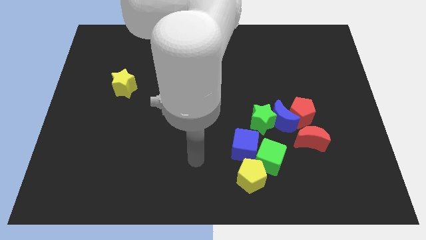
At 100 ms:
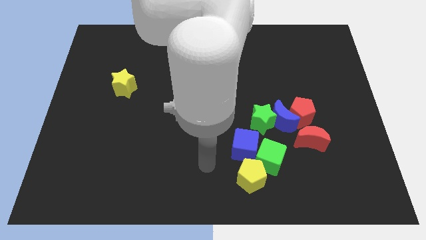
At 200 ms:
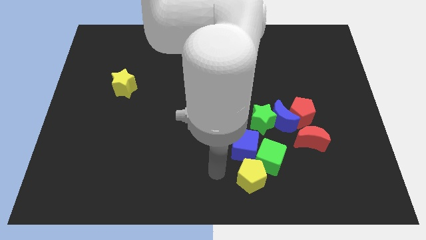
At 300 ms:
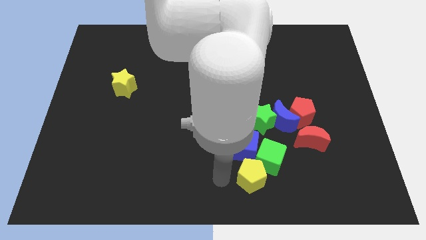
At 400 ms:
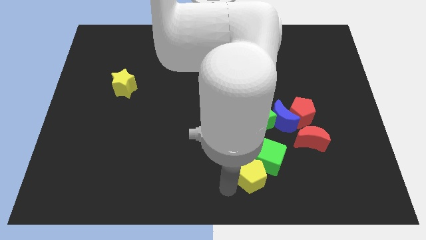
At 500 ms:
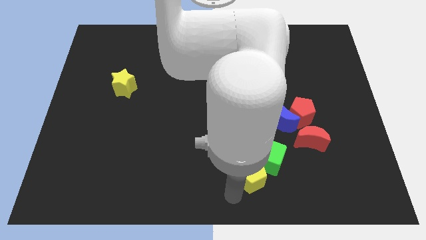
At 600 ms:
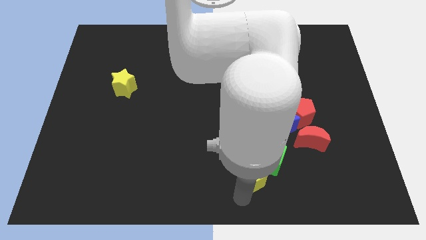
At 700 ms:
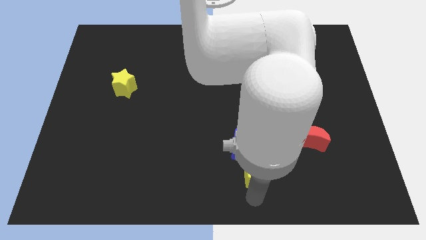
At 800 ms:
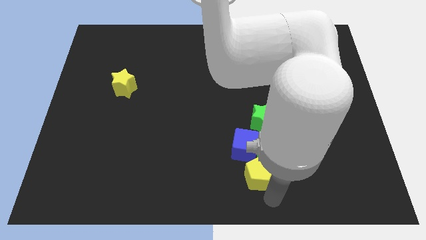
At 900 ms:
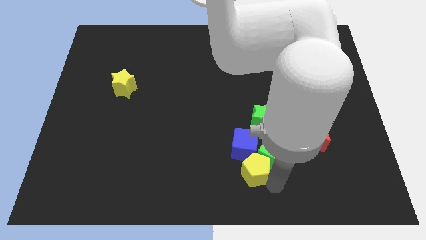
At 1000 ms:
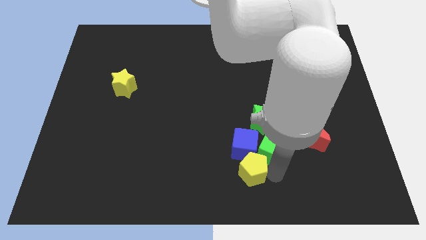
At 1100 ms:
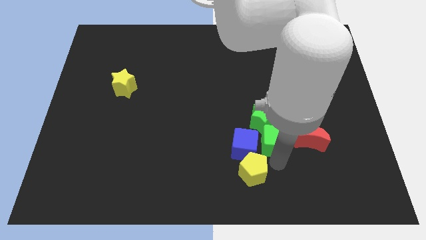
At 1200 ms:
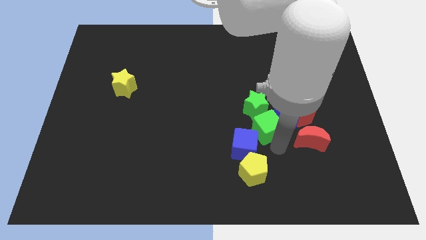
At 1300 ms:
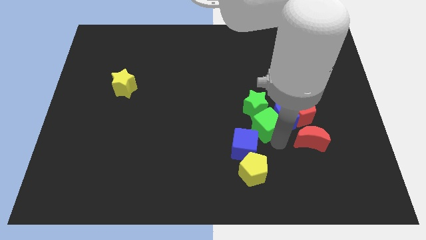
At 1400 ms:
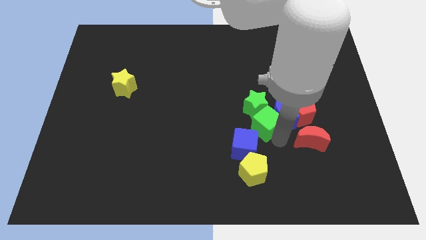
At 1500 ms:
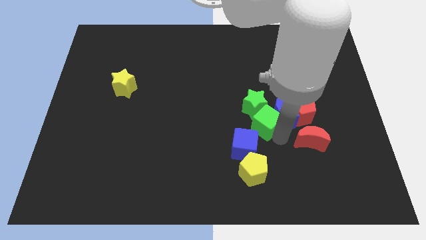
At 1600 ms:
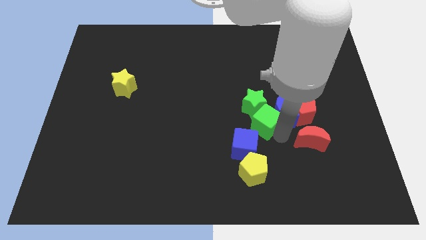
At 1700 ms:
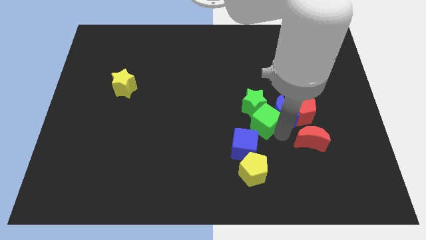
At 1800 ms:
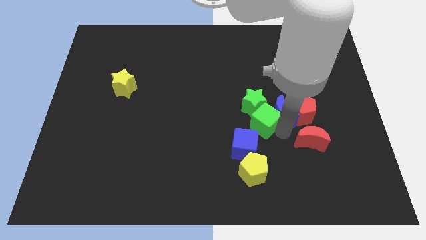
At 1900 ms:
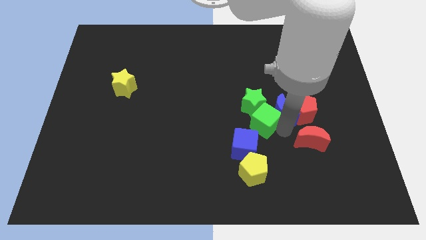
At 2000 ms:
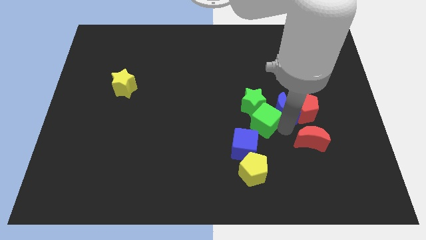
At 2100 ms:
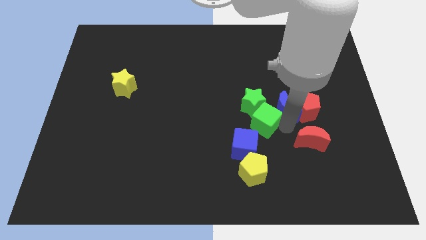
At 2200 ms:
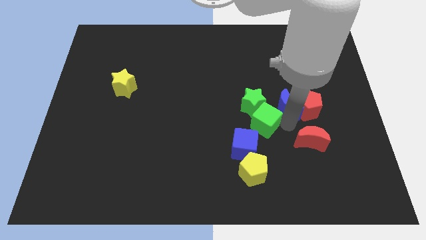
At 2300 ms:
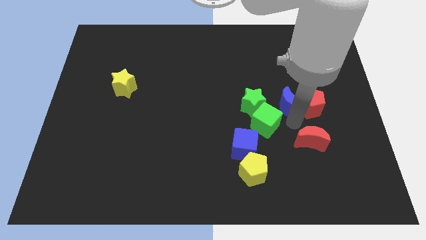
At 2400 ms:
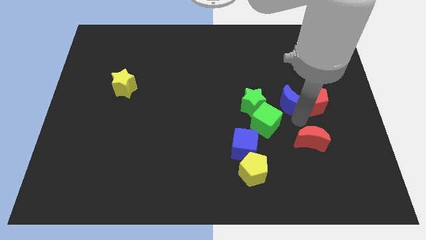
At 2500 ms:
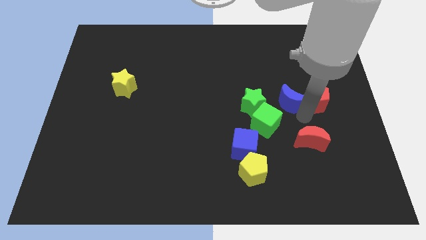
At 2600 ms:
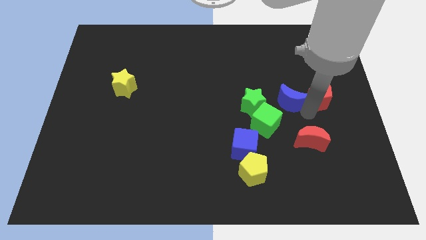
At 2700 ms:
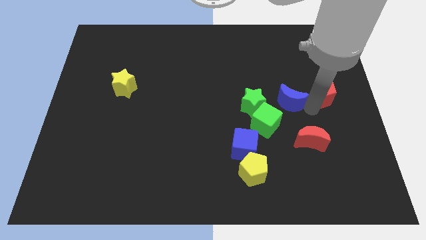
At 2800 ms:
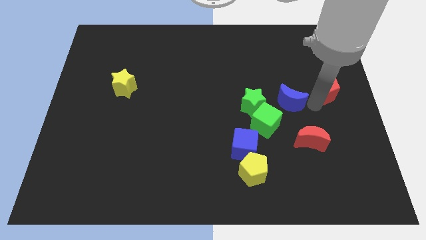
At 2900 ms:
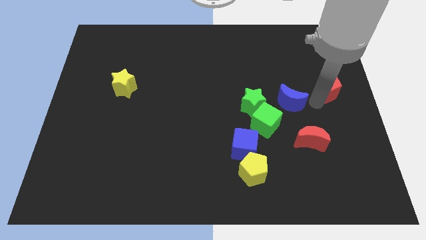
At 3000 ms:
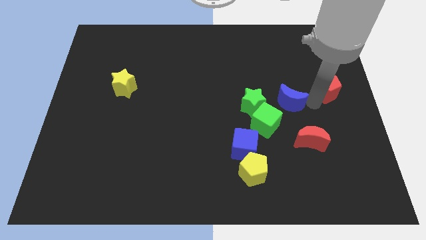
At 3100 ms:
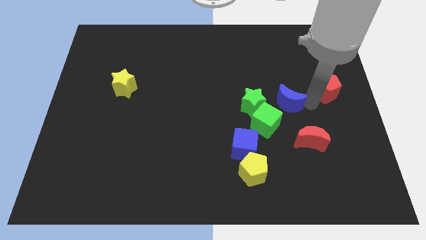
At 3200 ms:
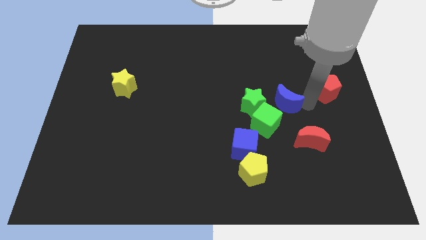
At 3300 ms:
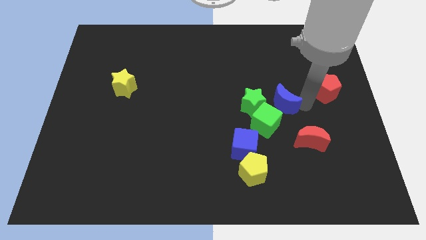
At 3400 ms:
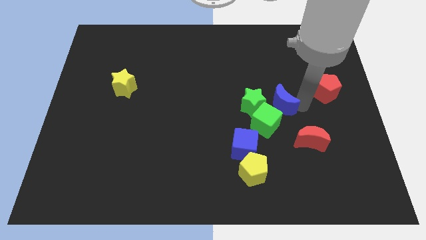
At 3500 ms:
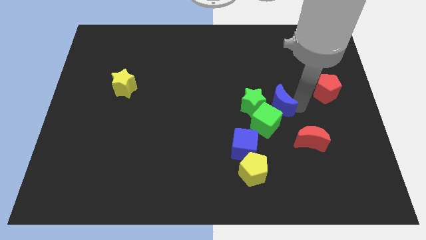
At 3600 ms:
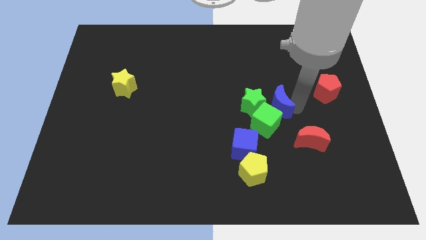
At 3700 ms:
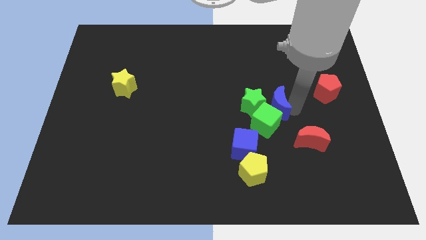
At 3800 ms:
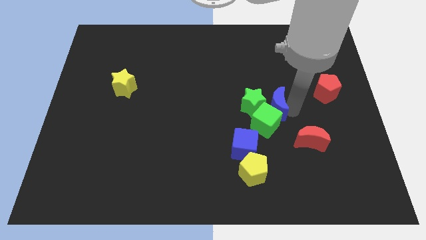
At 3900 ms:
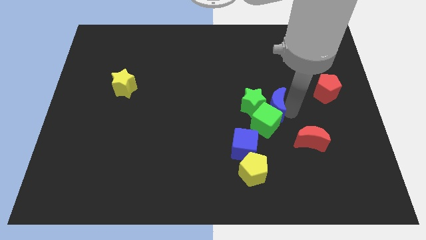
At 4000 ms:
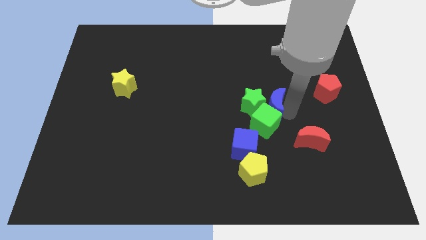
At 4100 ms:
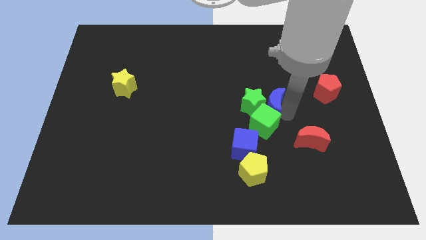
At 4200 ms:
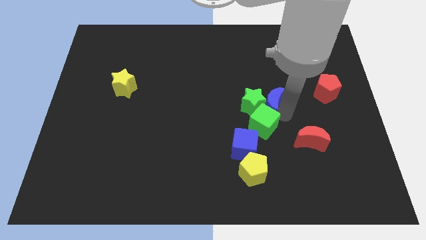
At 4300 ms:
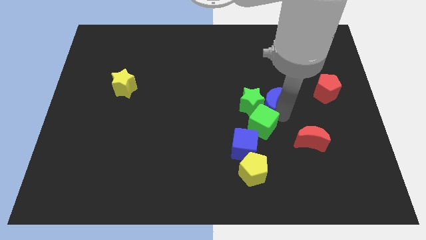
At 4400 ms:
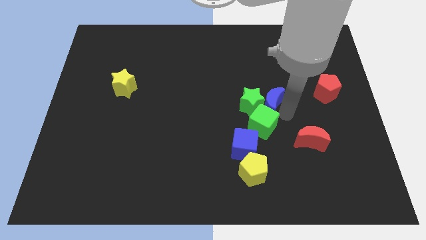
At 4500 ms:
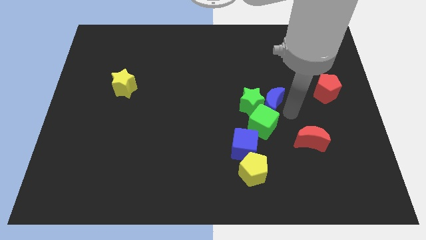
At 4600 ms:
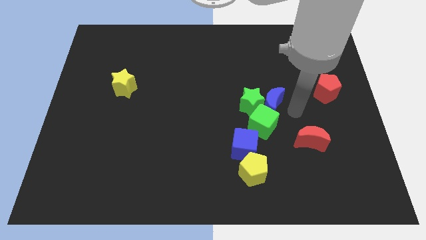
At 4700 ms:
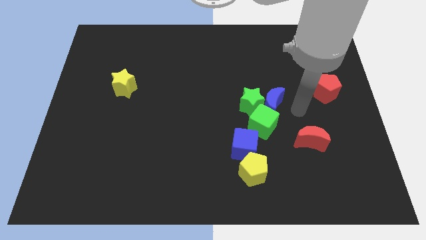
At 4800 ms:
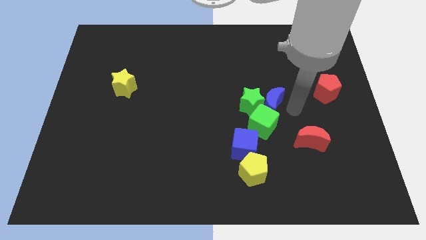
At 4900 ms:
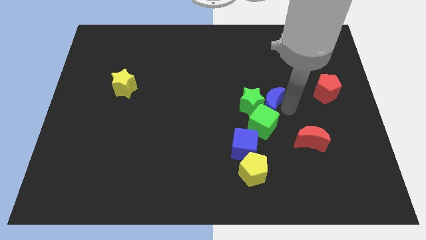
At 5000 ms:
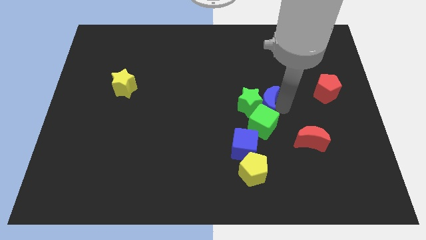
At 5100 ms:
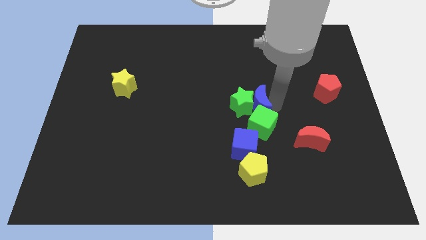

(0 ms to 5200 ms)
move the blue moon to the center

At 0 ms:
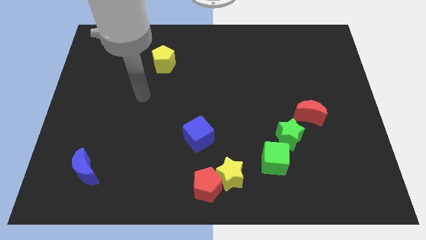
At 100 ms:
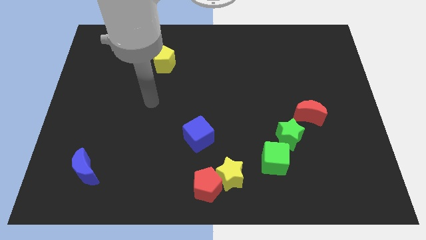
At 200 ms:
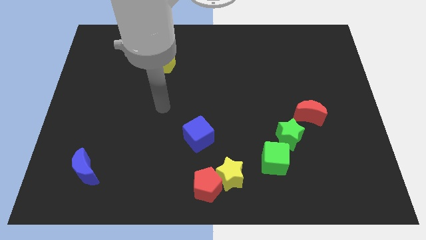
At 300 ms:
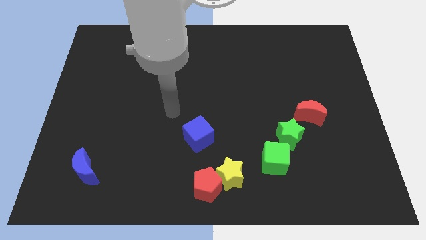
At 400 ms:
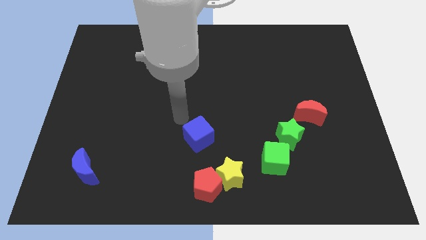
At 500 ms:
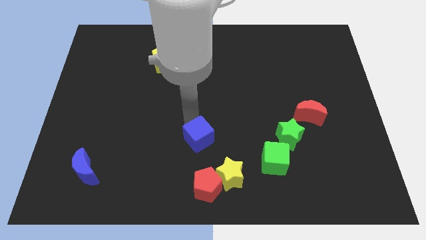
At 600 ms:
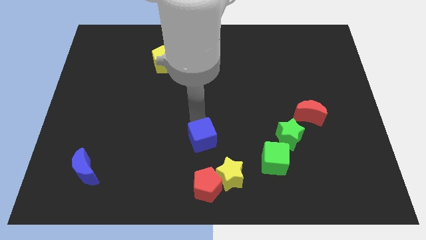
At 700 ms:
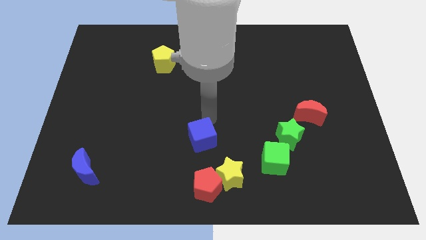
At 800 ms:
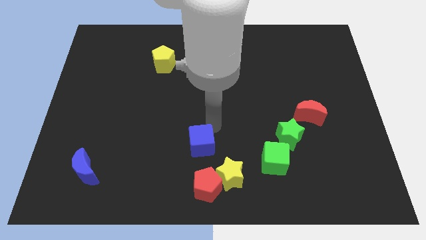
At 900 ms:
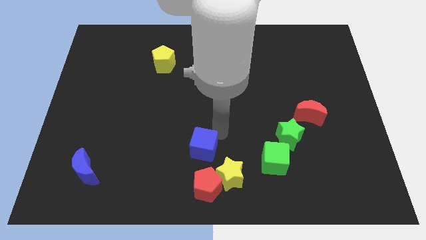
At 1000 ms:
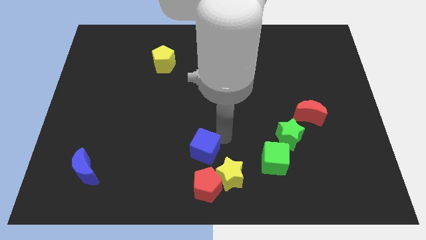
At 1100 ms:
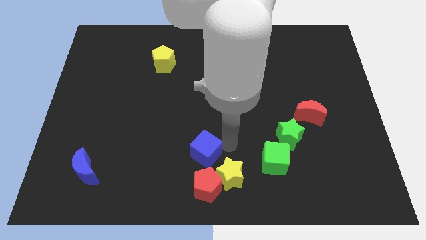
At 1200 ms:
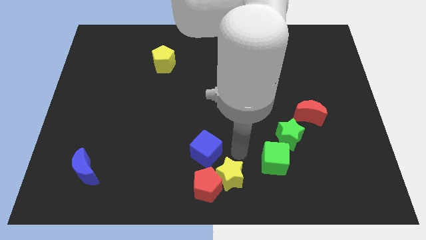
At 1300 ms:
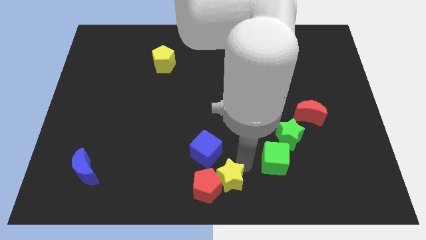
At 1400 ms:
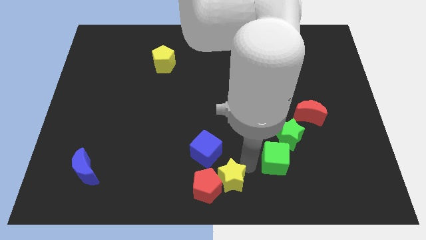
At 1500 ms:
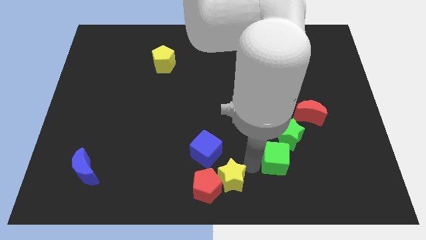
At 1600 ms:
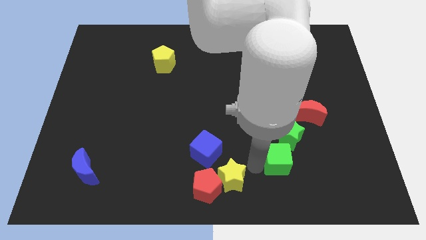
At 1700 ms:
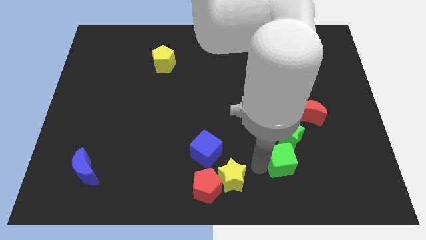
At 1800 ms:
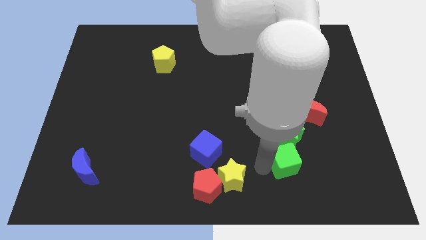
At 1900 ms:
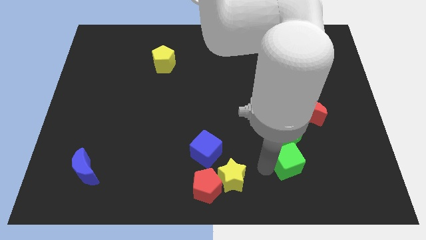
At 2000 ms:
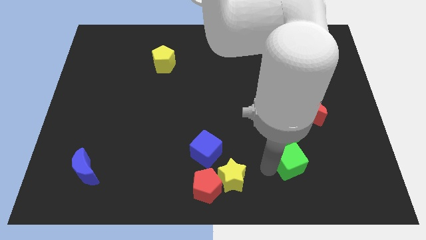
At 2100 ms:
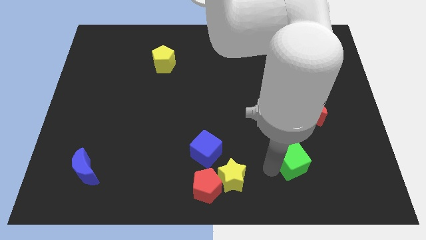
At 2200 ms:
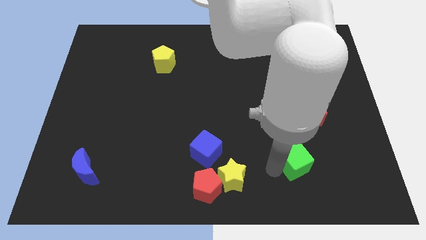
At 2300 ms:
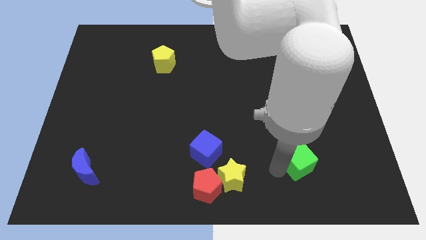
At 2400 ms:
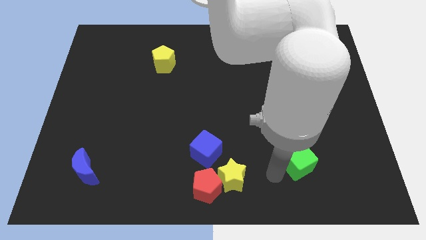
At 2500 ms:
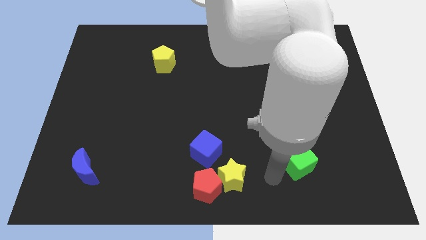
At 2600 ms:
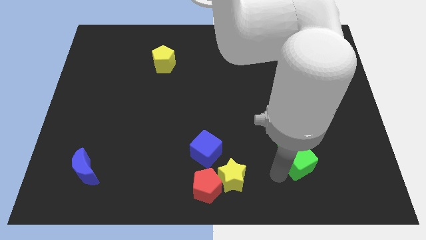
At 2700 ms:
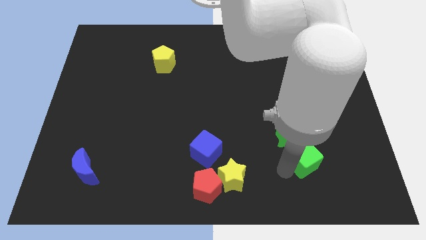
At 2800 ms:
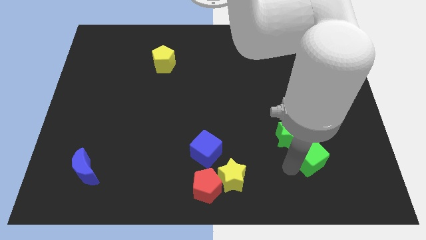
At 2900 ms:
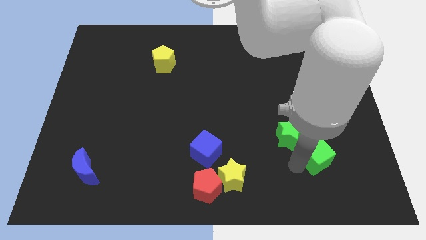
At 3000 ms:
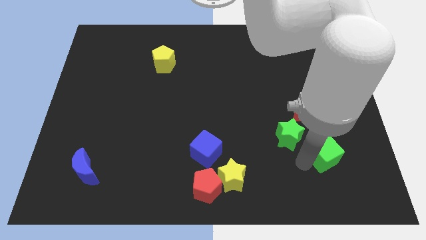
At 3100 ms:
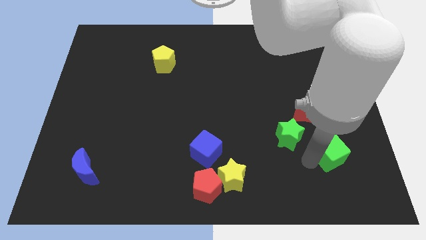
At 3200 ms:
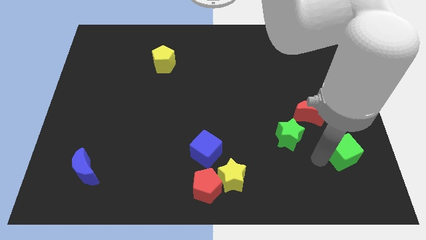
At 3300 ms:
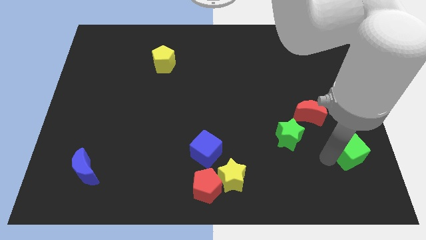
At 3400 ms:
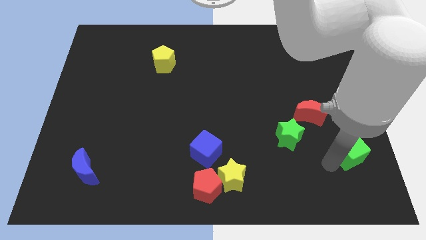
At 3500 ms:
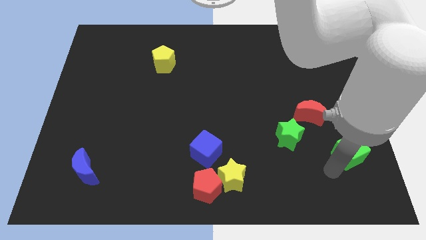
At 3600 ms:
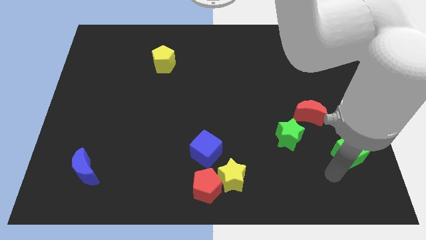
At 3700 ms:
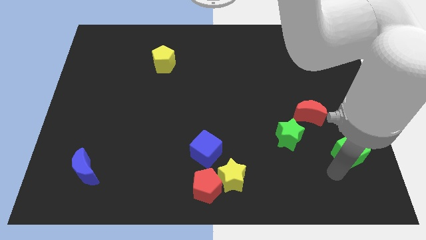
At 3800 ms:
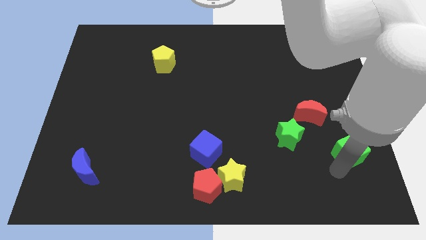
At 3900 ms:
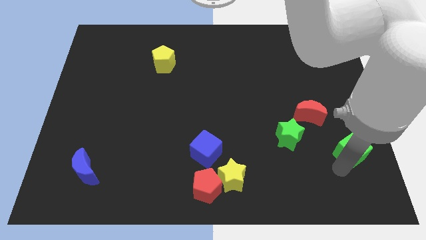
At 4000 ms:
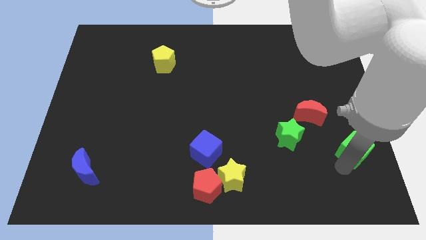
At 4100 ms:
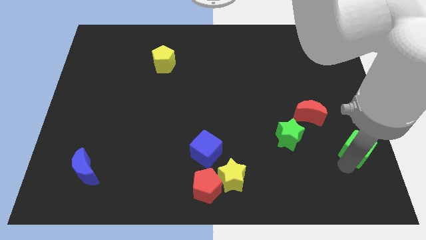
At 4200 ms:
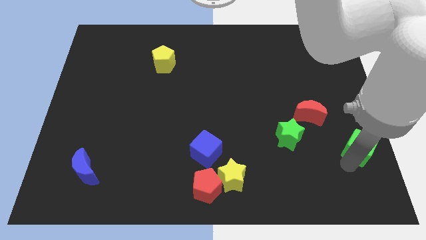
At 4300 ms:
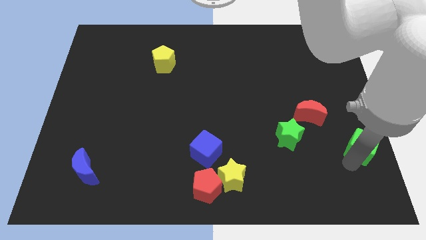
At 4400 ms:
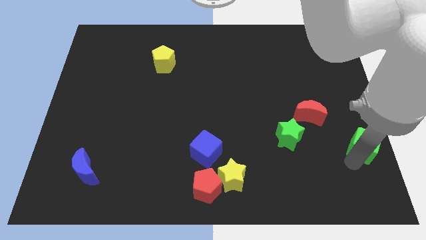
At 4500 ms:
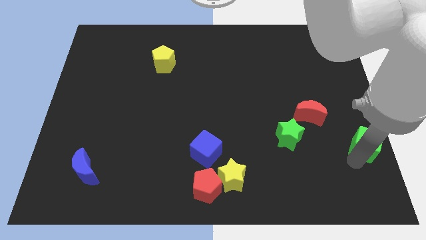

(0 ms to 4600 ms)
put the green cube to the center right
